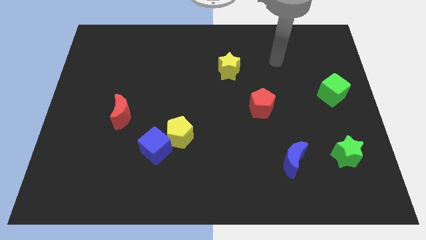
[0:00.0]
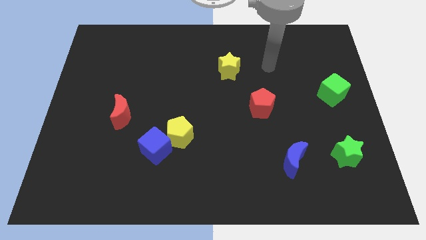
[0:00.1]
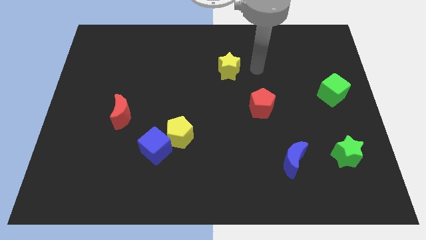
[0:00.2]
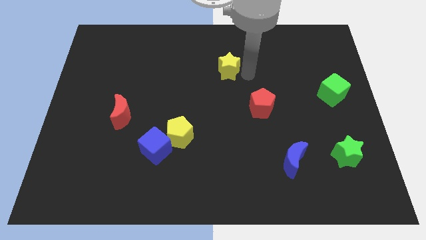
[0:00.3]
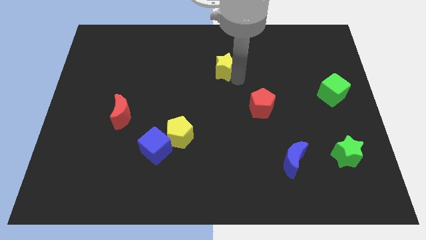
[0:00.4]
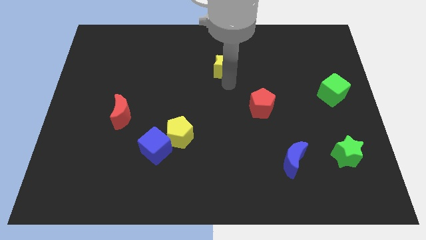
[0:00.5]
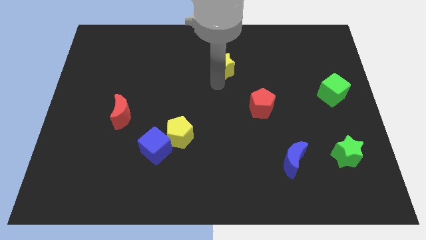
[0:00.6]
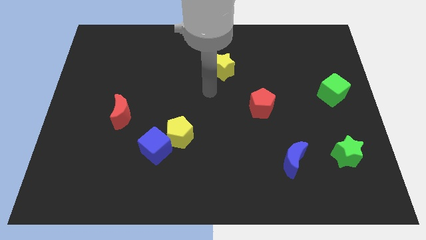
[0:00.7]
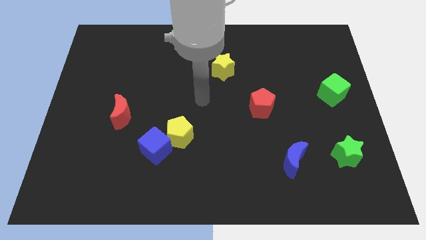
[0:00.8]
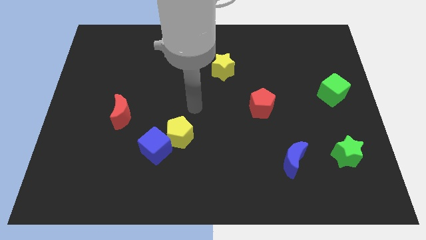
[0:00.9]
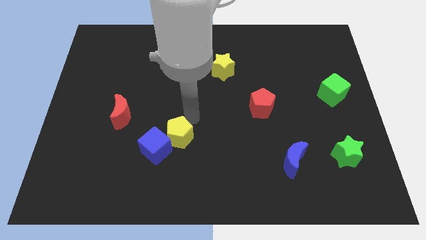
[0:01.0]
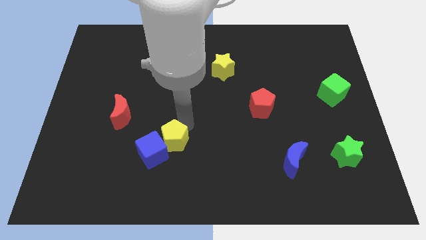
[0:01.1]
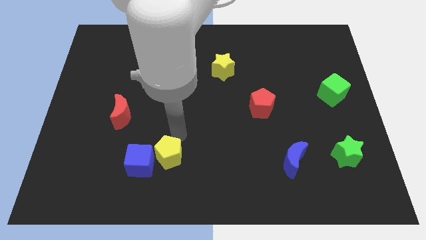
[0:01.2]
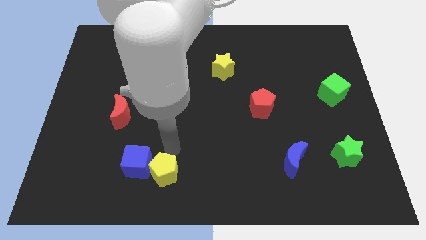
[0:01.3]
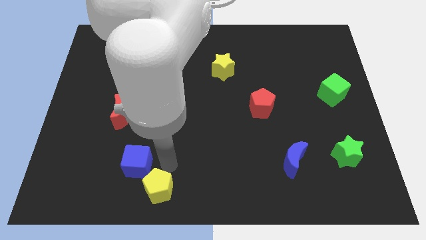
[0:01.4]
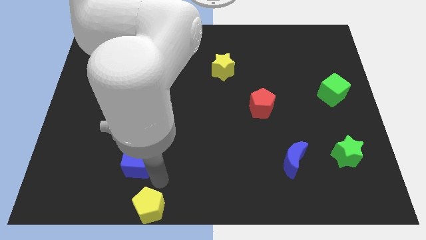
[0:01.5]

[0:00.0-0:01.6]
move the blue cube away from the yellow pentagon

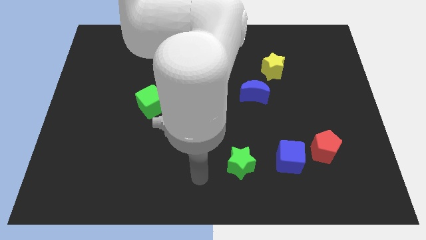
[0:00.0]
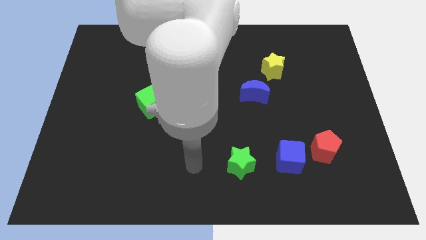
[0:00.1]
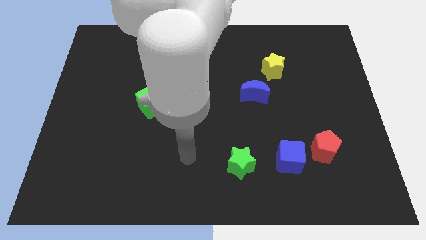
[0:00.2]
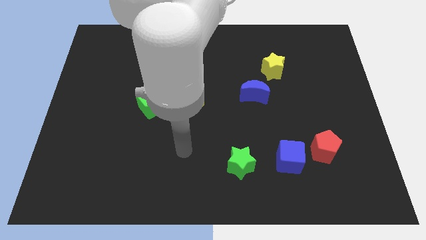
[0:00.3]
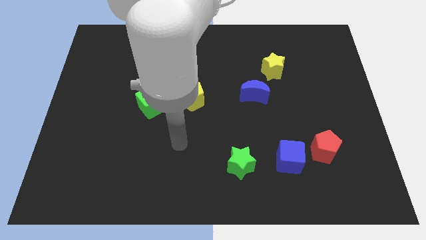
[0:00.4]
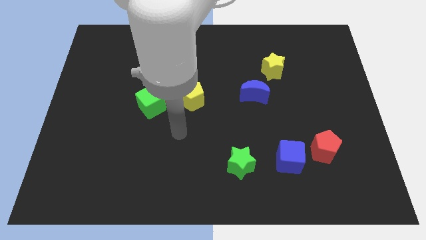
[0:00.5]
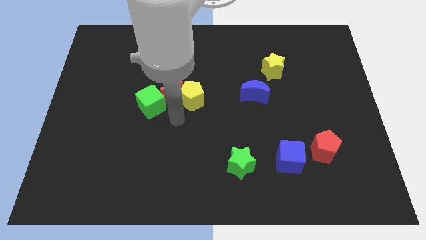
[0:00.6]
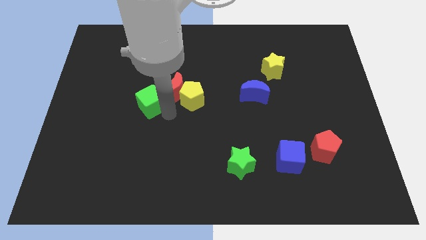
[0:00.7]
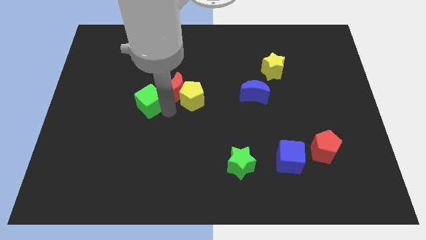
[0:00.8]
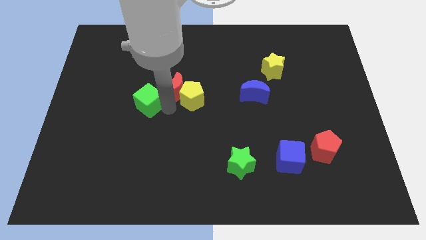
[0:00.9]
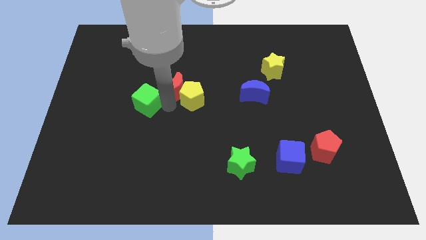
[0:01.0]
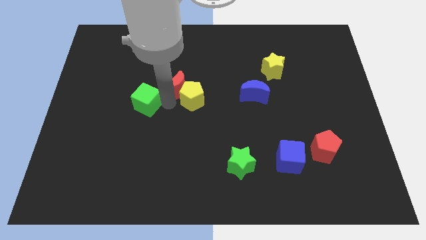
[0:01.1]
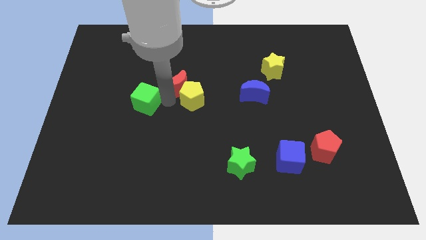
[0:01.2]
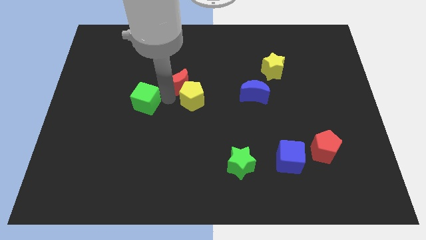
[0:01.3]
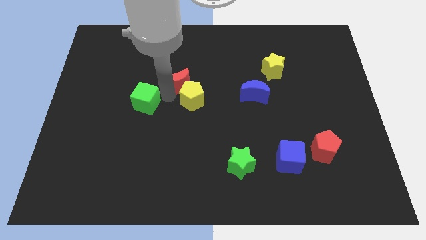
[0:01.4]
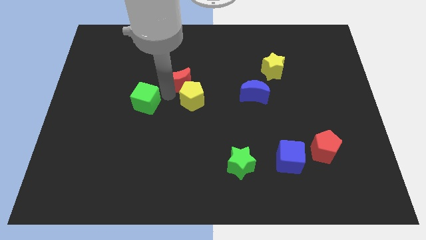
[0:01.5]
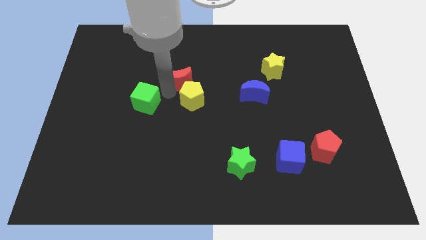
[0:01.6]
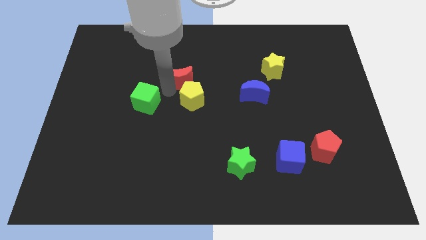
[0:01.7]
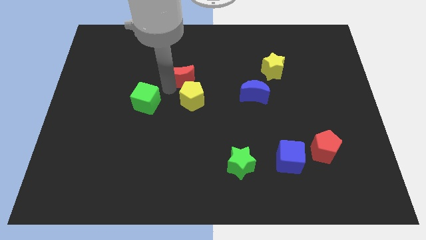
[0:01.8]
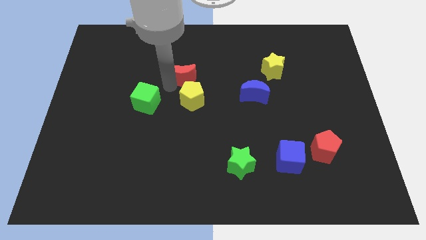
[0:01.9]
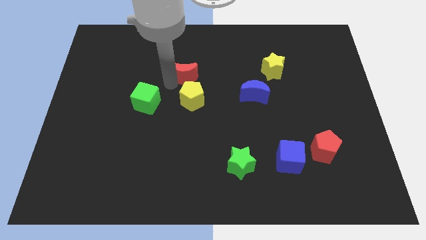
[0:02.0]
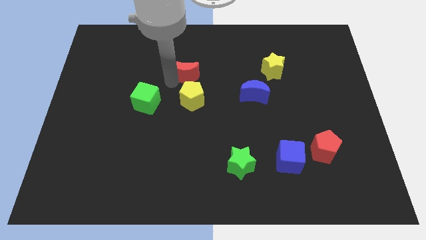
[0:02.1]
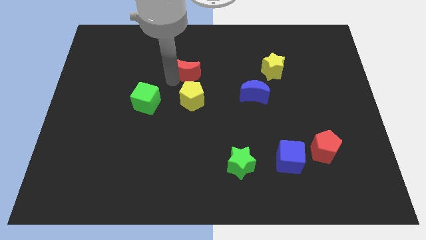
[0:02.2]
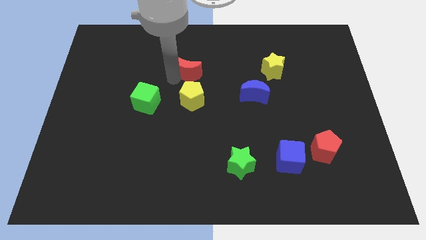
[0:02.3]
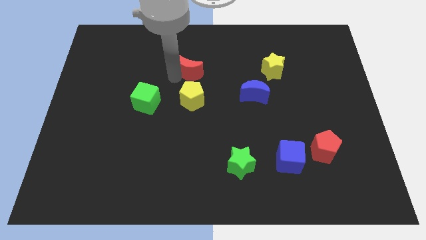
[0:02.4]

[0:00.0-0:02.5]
pull the red moon apart from the yellow pentagon and green cube

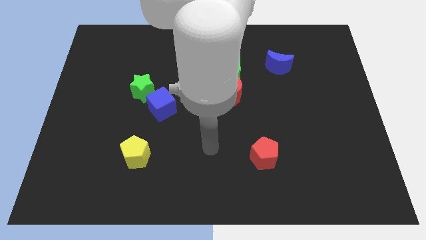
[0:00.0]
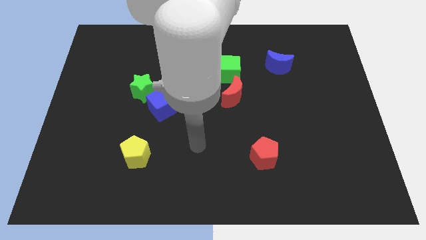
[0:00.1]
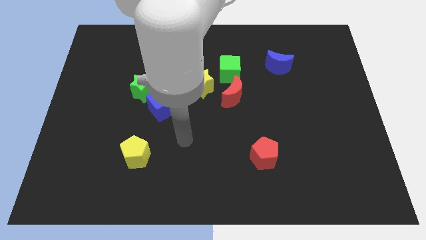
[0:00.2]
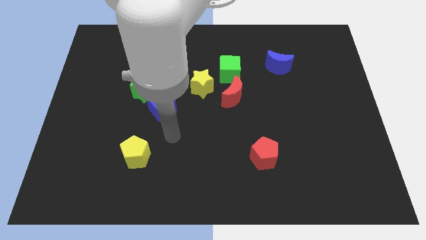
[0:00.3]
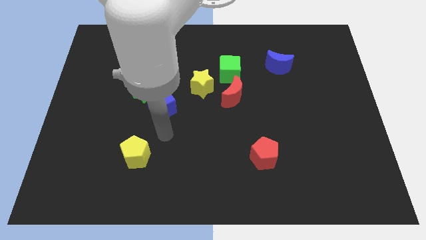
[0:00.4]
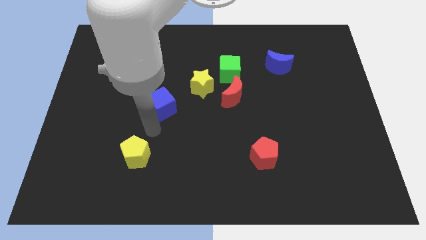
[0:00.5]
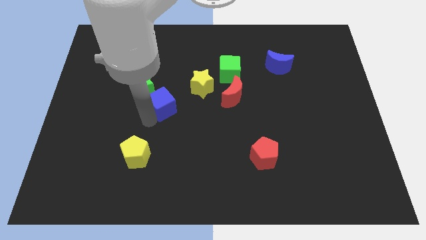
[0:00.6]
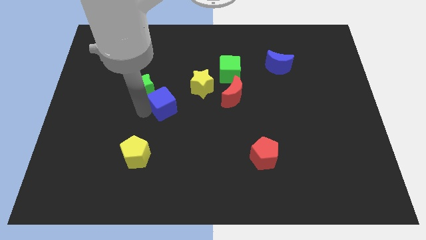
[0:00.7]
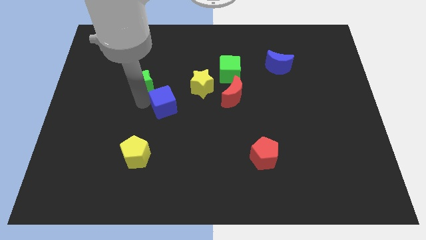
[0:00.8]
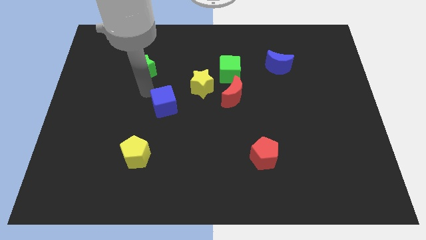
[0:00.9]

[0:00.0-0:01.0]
pull the blue cube apart from the green star

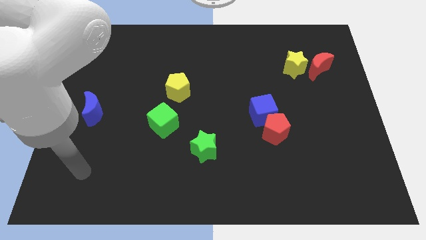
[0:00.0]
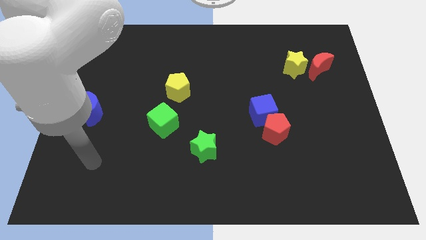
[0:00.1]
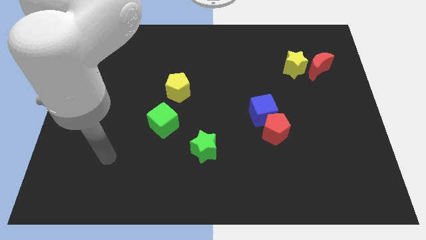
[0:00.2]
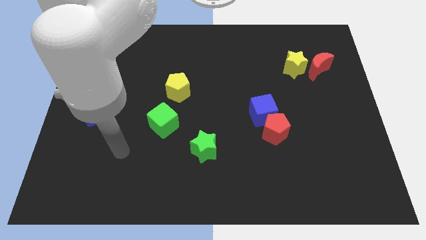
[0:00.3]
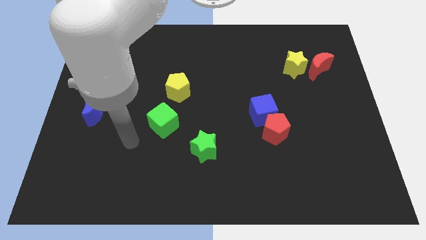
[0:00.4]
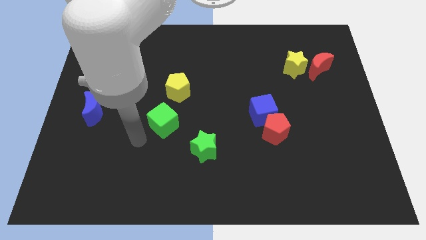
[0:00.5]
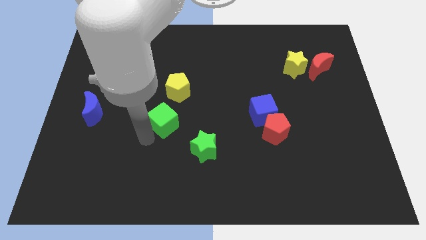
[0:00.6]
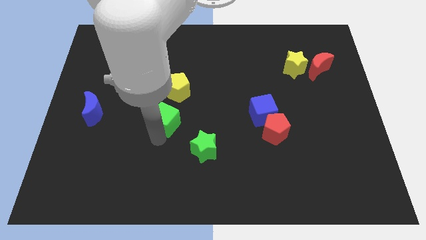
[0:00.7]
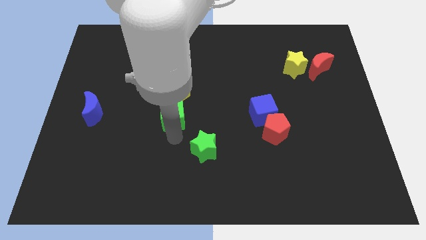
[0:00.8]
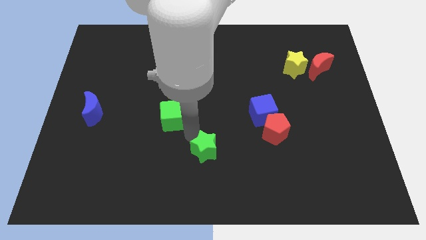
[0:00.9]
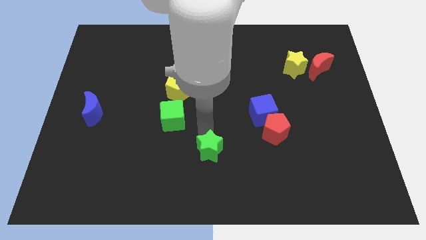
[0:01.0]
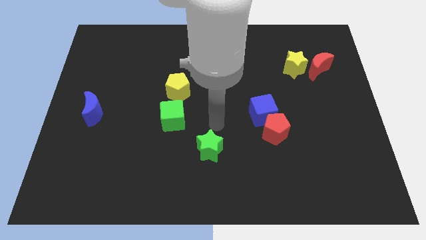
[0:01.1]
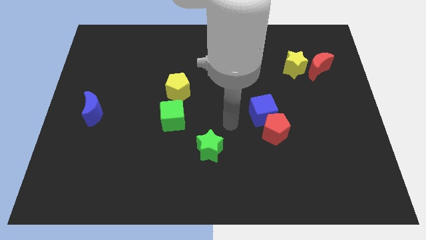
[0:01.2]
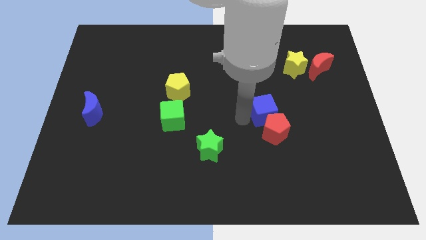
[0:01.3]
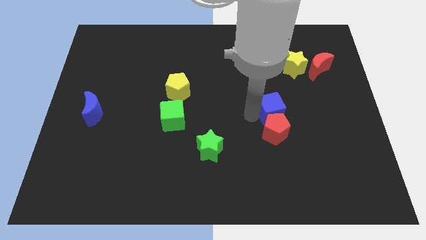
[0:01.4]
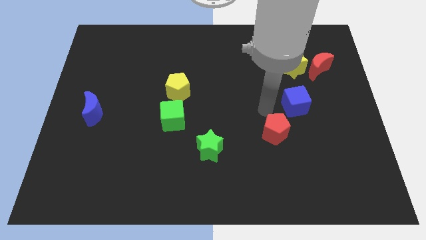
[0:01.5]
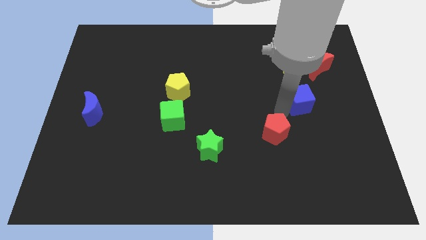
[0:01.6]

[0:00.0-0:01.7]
separate the red pentagon from the blue cube

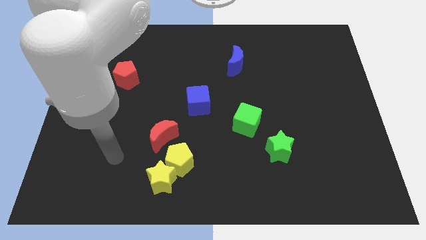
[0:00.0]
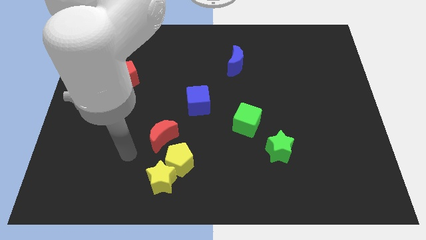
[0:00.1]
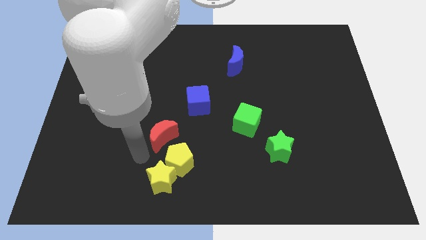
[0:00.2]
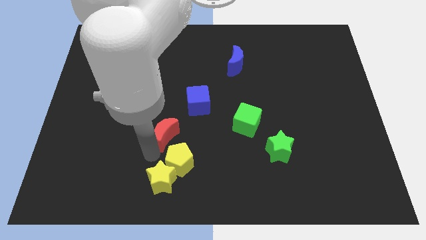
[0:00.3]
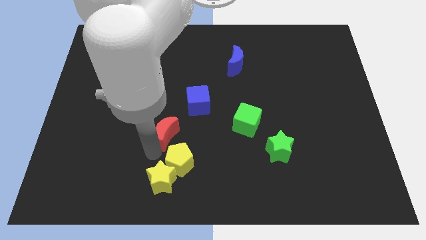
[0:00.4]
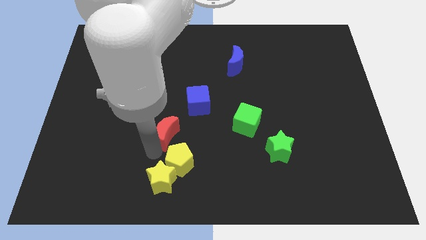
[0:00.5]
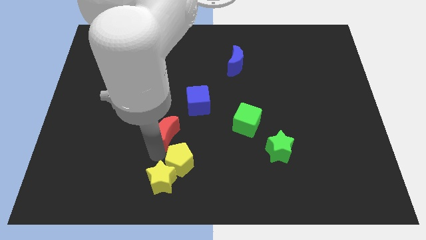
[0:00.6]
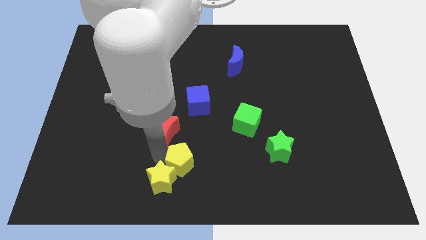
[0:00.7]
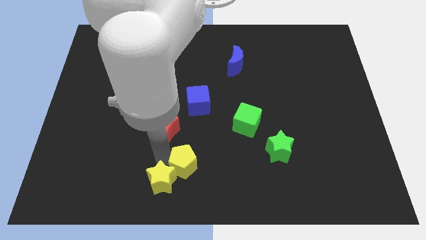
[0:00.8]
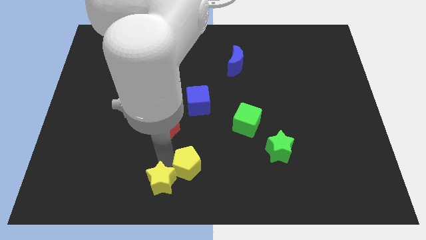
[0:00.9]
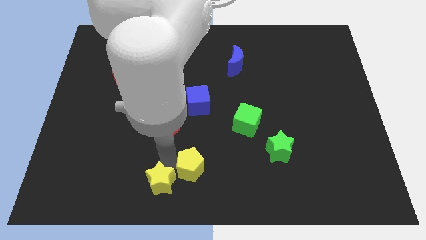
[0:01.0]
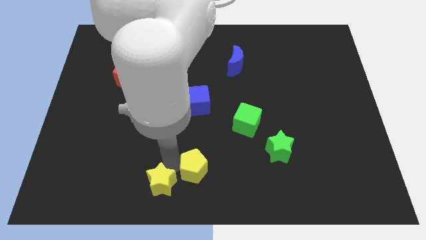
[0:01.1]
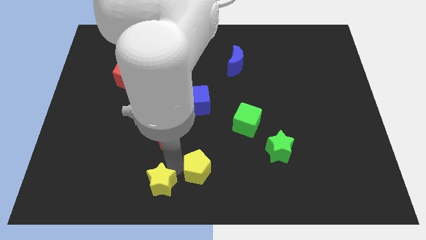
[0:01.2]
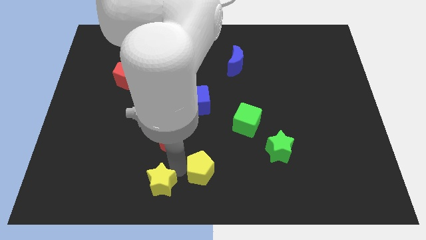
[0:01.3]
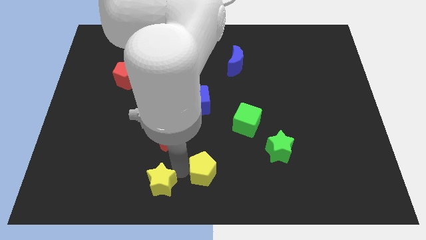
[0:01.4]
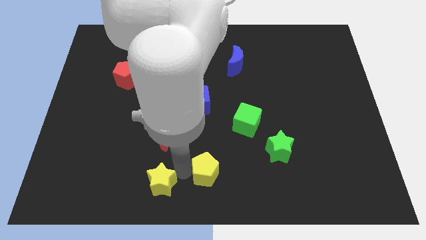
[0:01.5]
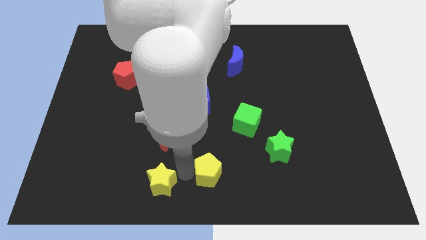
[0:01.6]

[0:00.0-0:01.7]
separate the yellow pentagon from the yellow star and red moon

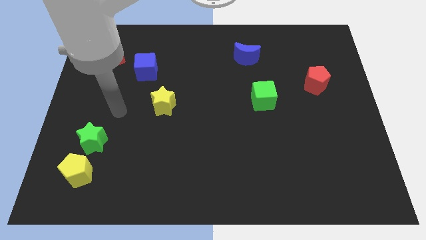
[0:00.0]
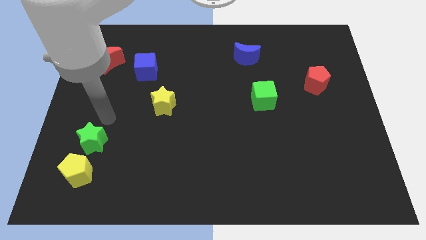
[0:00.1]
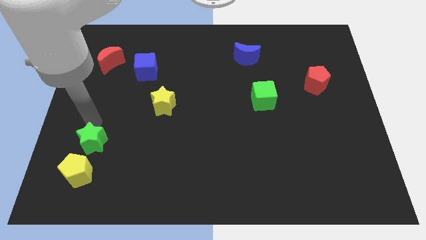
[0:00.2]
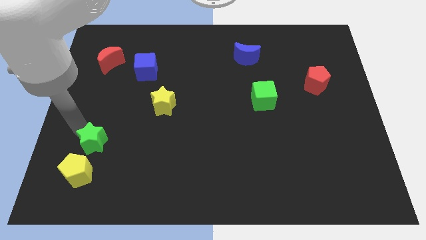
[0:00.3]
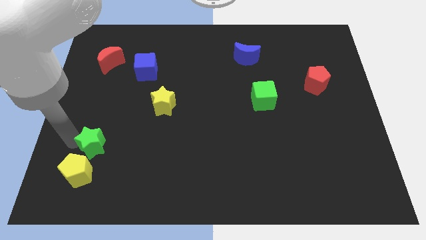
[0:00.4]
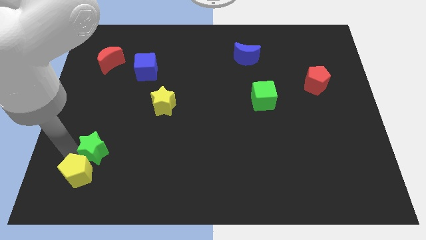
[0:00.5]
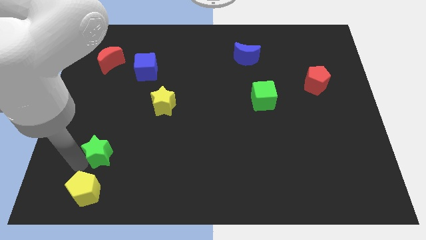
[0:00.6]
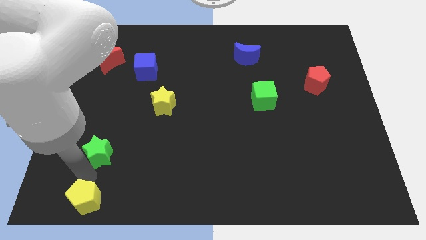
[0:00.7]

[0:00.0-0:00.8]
separate the green star from the yellow pentagon
